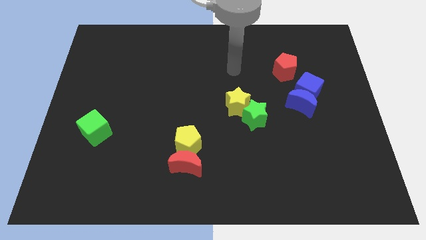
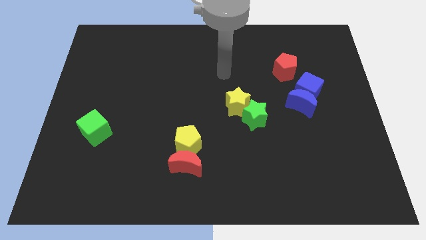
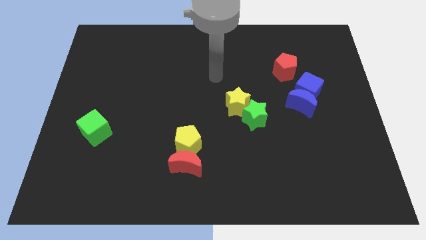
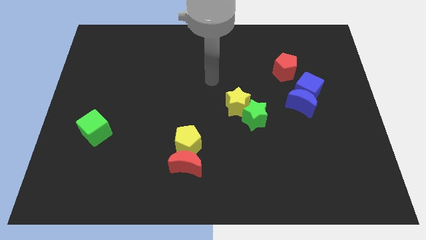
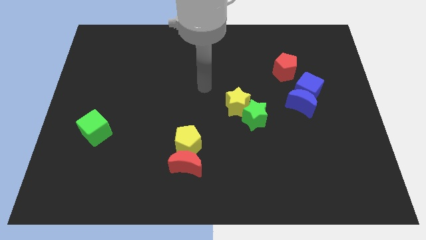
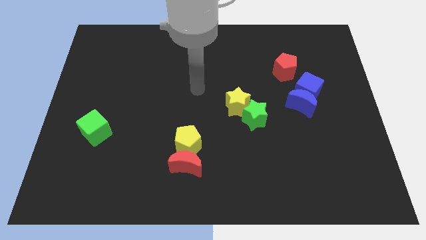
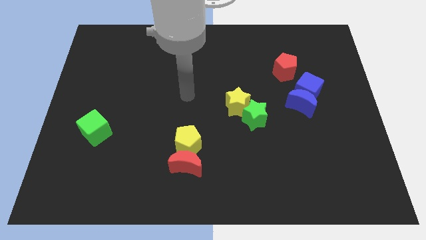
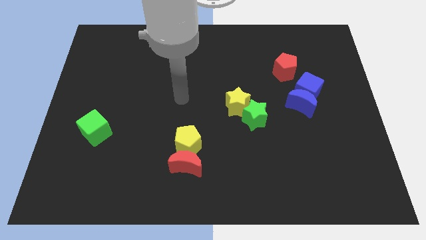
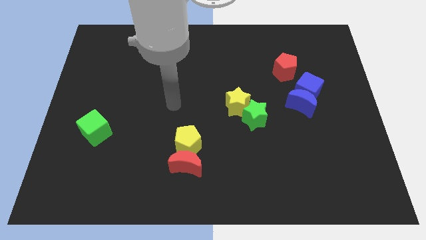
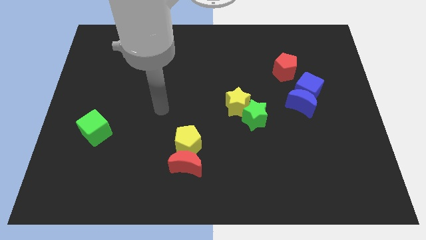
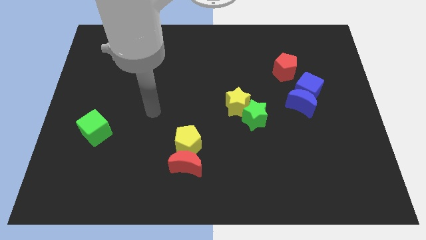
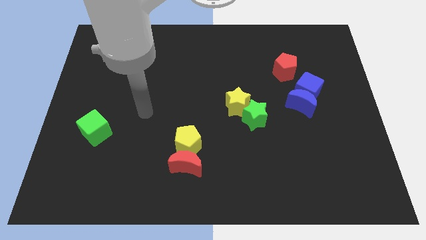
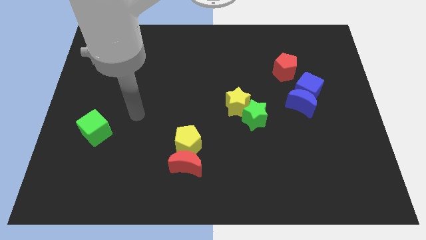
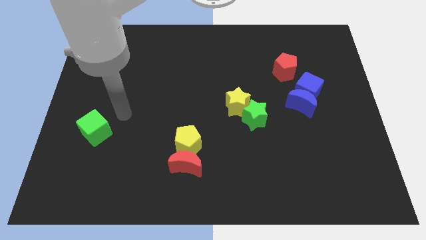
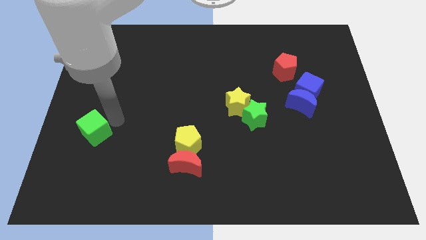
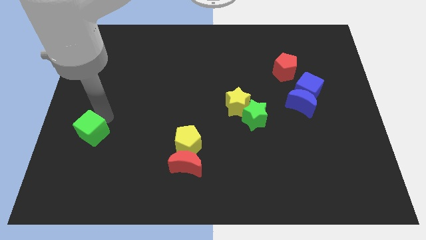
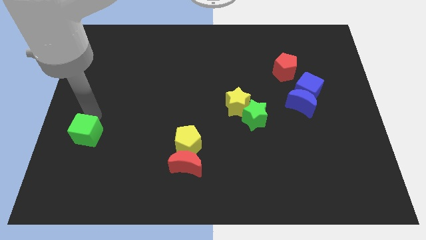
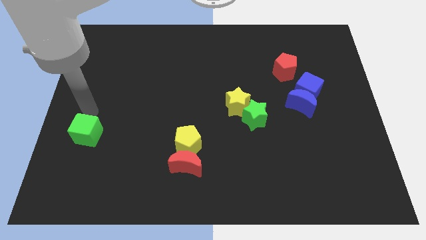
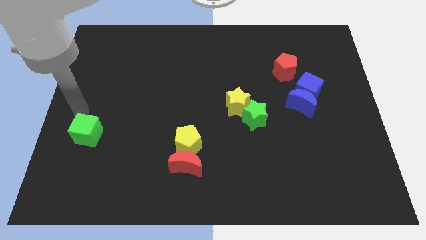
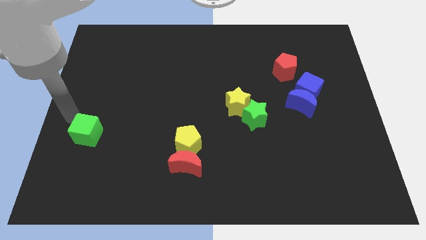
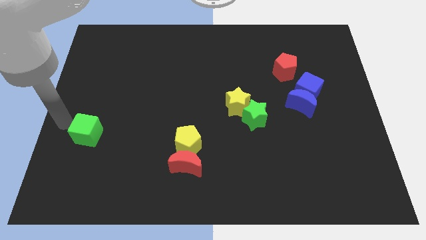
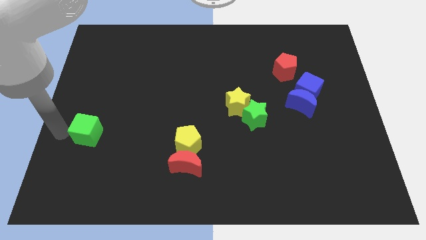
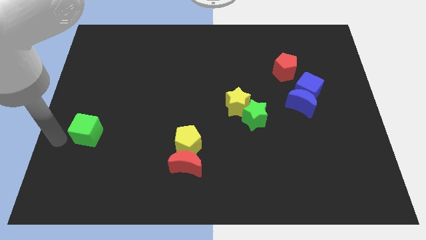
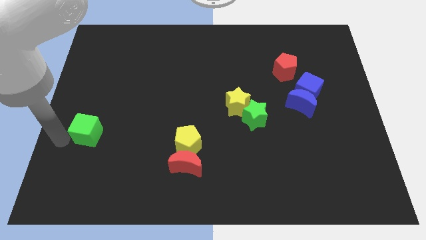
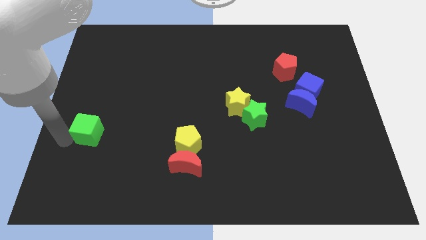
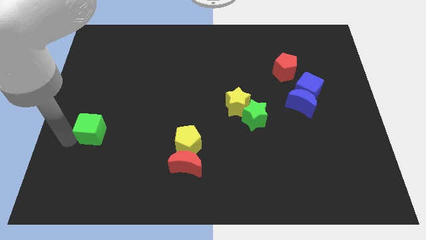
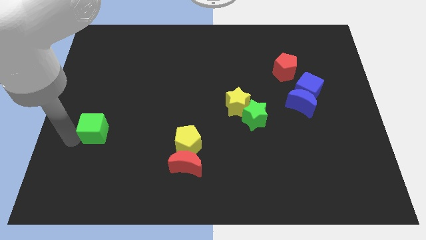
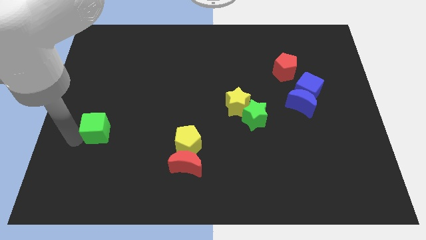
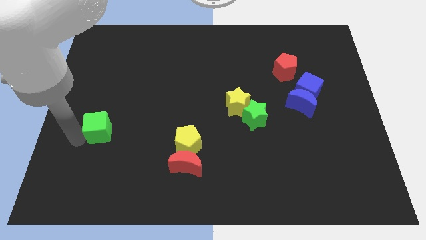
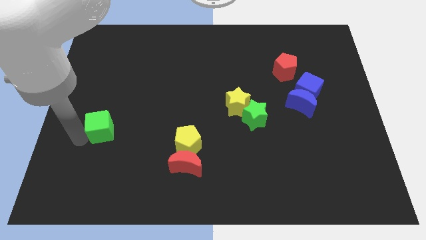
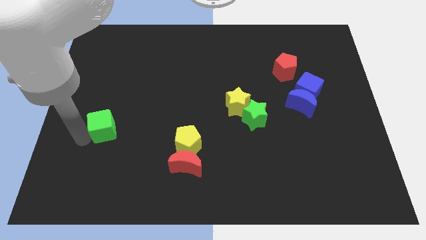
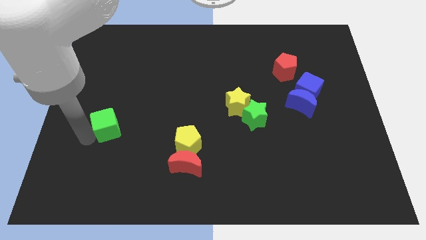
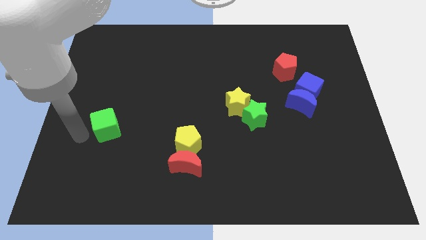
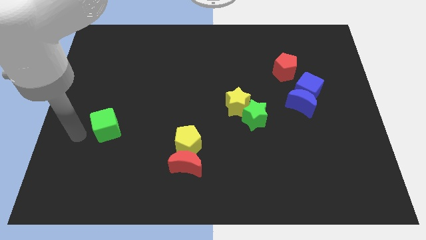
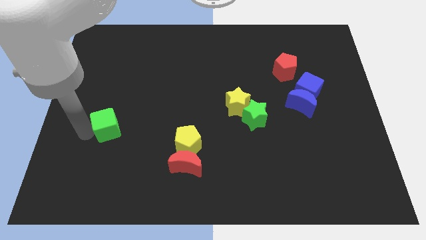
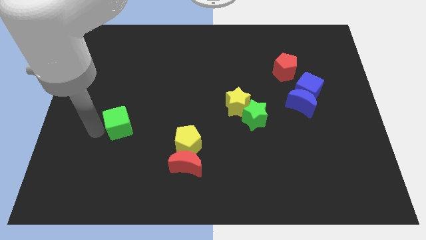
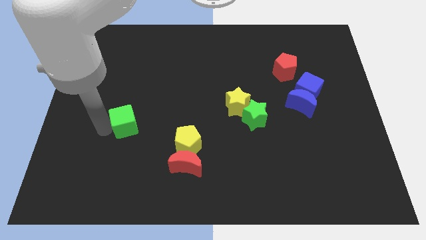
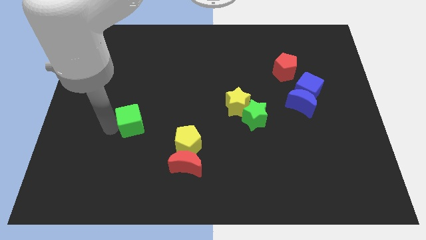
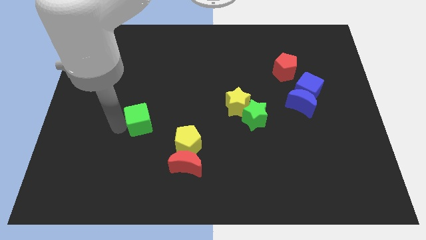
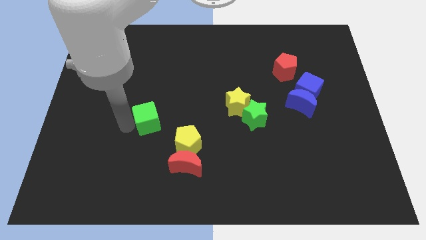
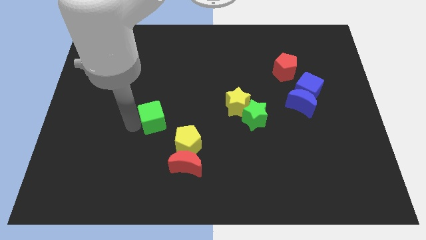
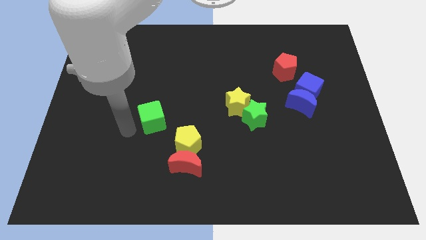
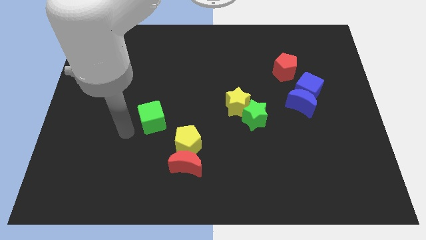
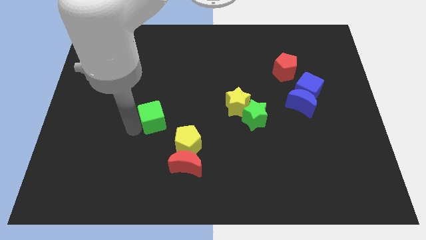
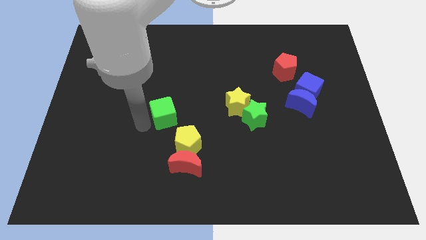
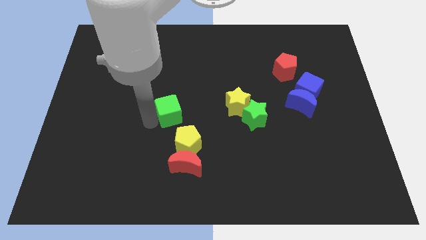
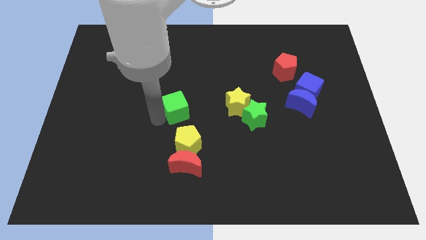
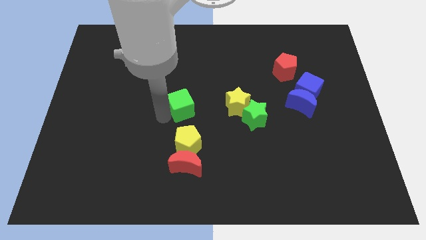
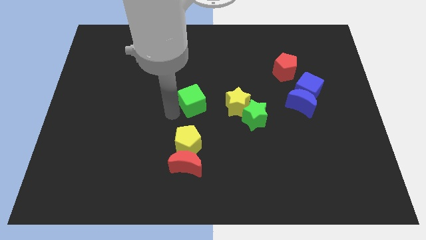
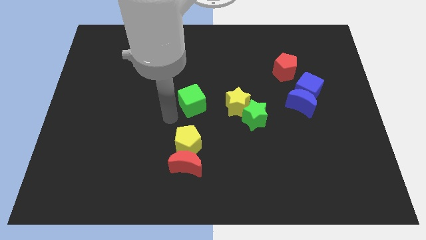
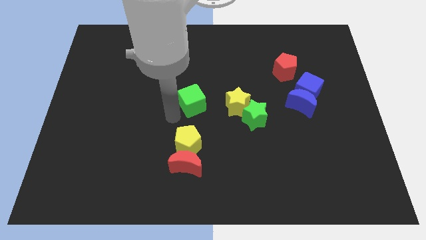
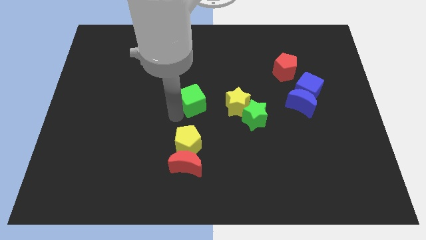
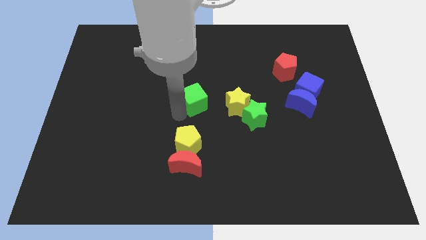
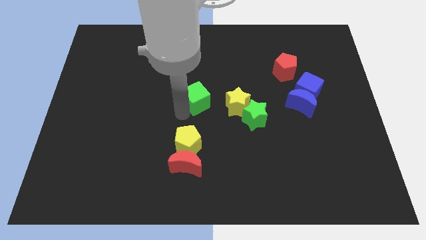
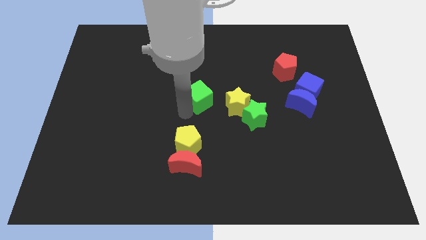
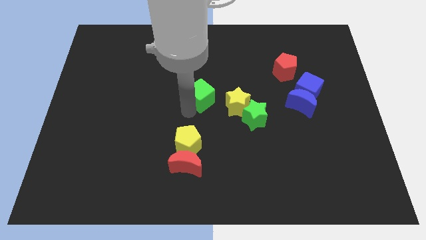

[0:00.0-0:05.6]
push the green cube diagonally up and to the left of the yellow star
